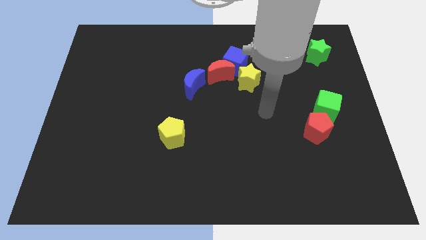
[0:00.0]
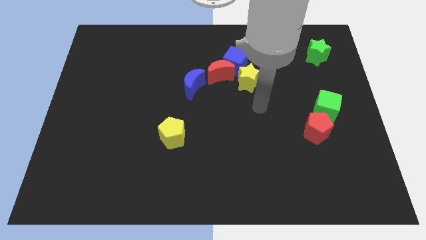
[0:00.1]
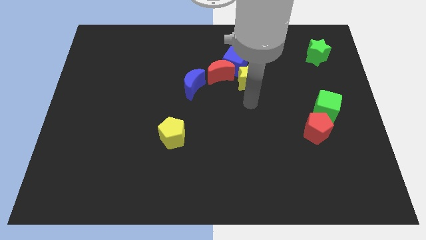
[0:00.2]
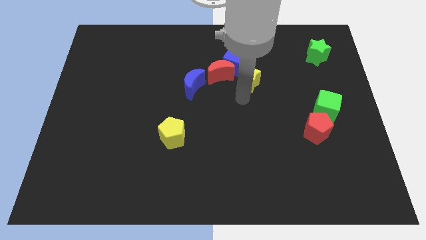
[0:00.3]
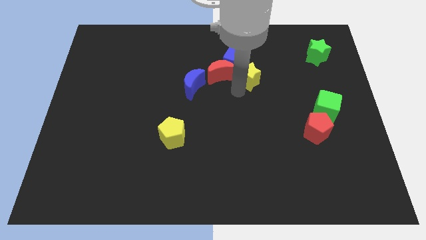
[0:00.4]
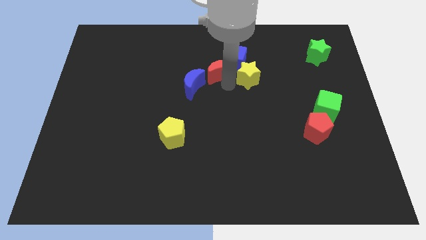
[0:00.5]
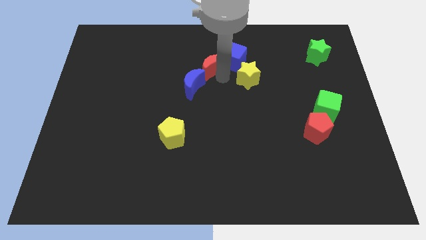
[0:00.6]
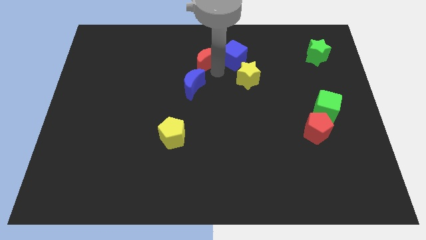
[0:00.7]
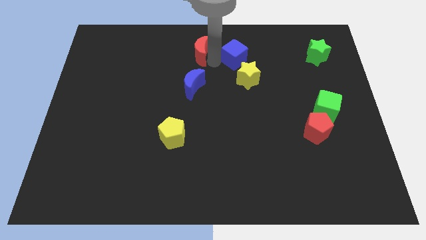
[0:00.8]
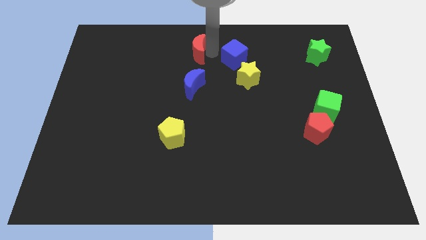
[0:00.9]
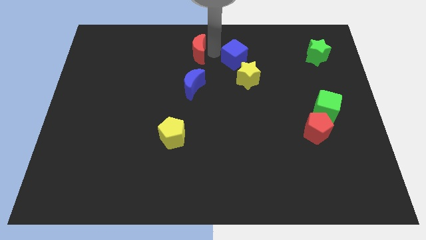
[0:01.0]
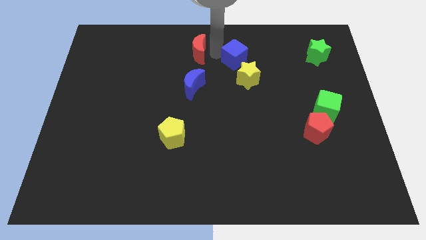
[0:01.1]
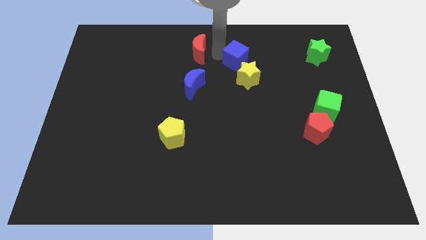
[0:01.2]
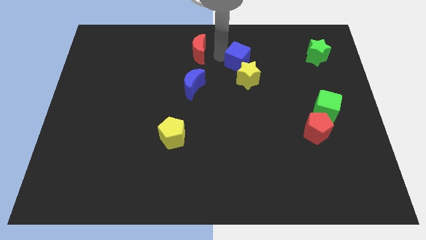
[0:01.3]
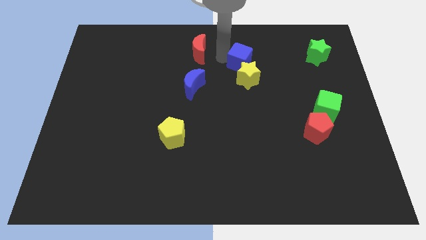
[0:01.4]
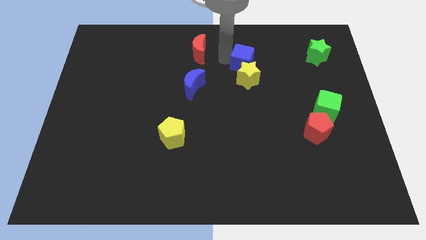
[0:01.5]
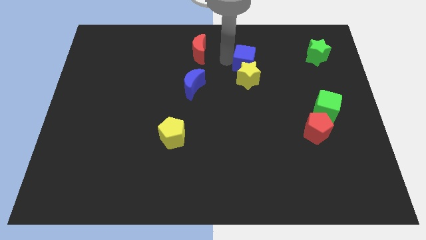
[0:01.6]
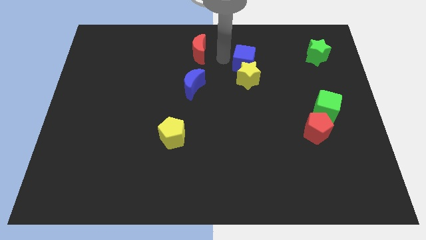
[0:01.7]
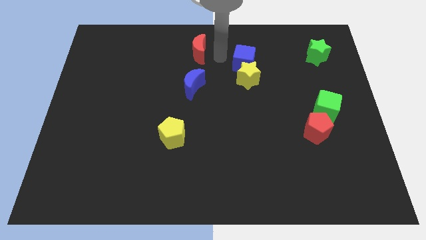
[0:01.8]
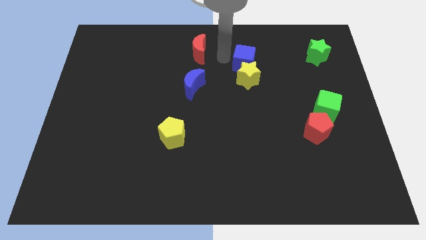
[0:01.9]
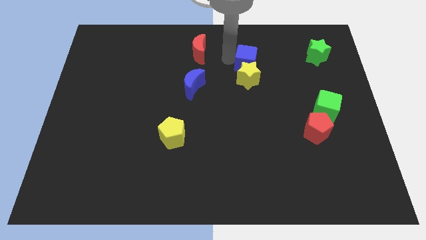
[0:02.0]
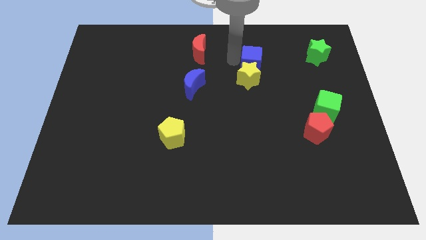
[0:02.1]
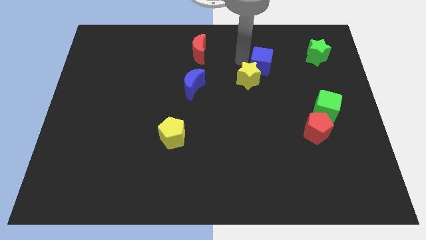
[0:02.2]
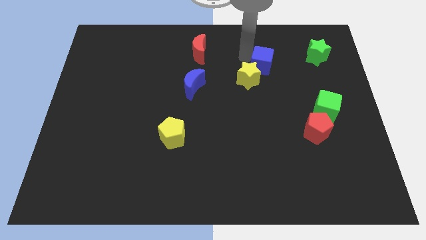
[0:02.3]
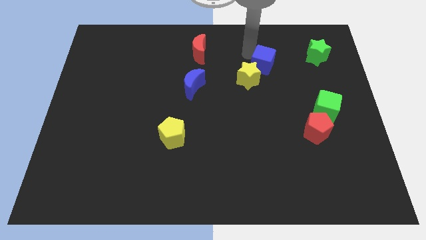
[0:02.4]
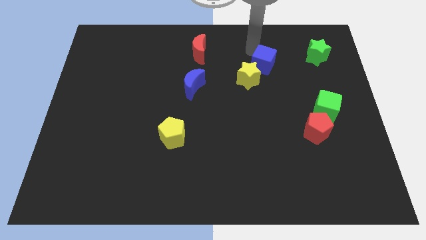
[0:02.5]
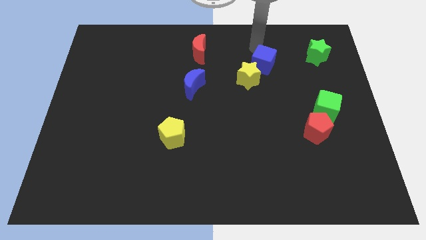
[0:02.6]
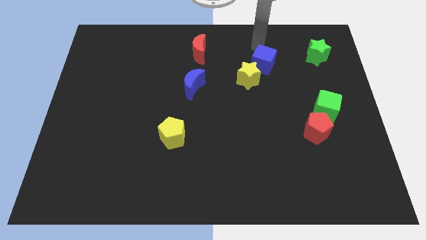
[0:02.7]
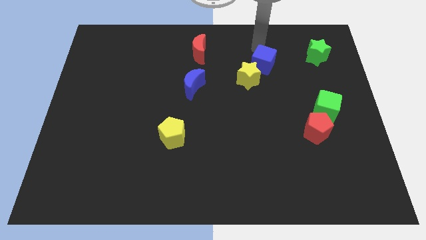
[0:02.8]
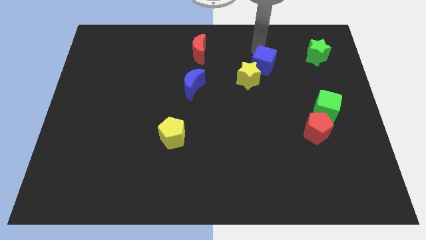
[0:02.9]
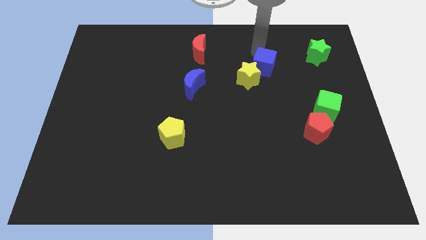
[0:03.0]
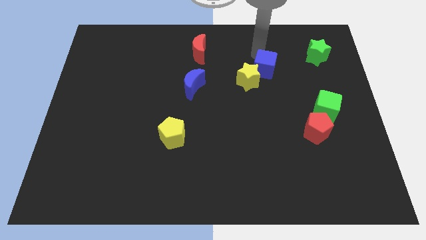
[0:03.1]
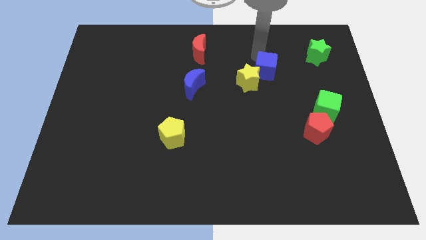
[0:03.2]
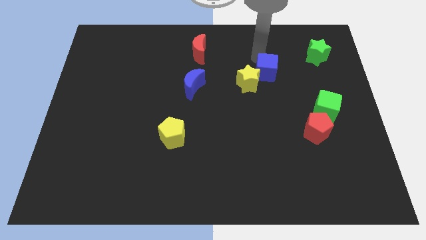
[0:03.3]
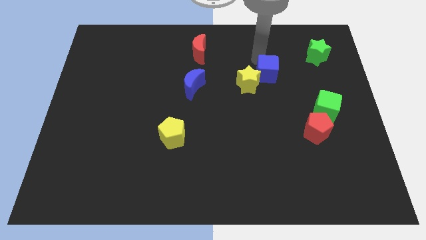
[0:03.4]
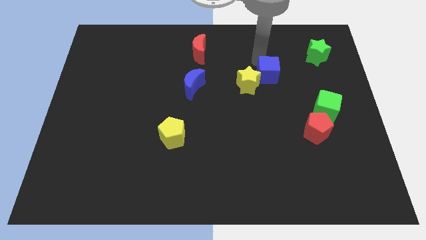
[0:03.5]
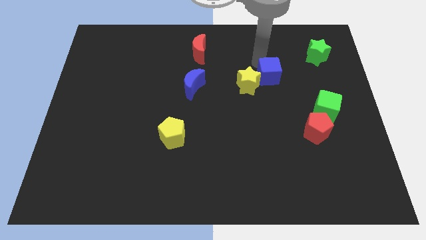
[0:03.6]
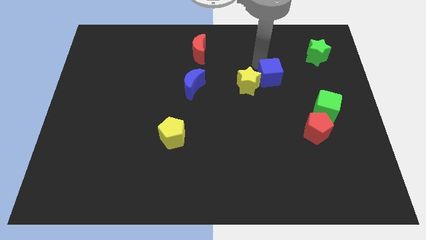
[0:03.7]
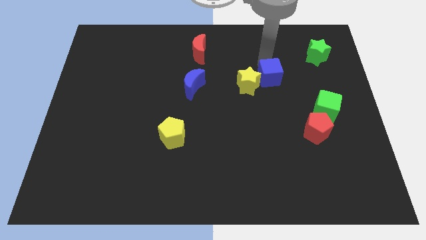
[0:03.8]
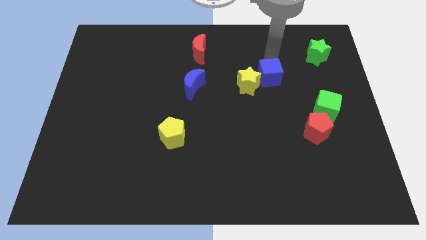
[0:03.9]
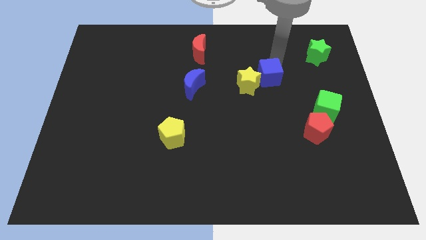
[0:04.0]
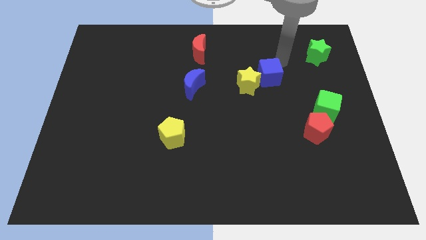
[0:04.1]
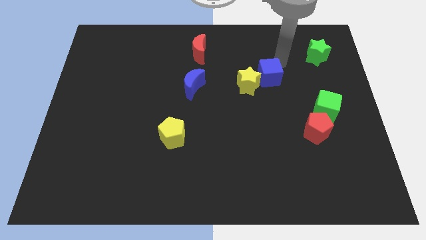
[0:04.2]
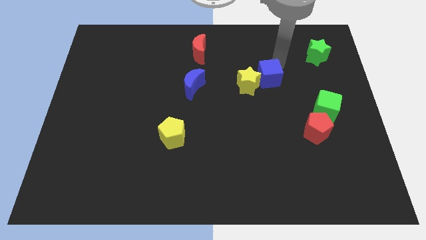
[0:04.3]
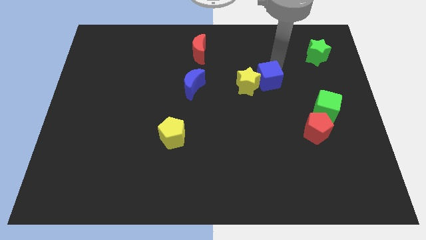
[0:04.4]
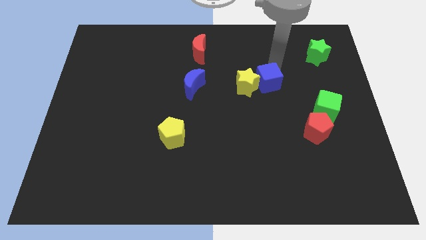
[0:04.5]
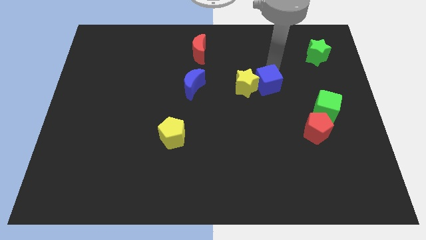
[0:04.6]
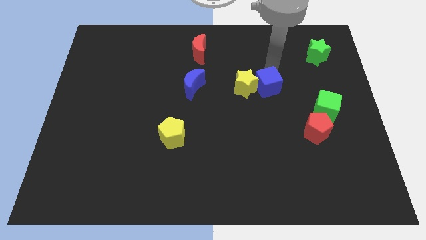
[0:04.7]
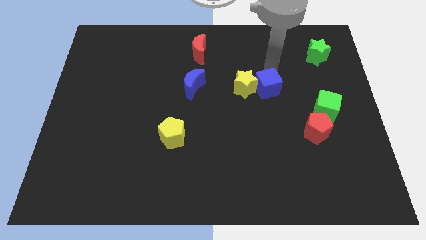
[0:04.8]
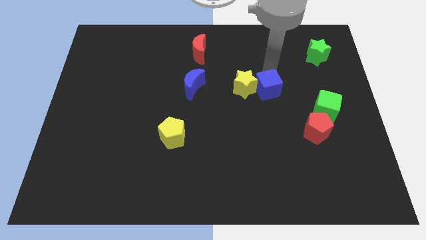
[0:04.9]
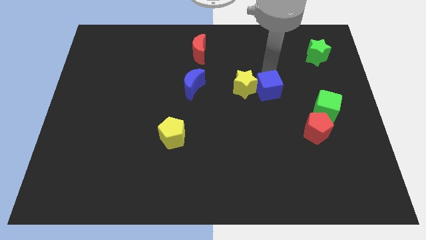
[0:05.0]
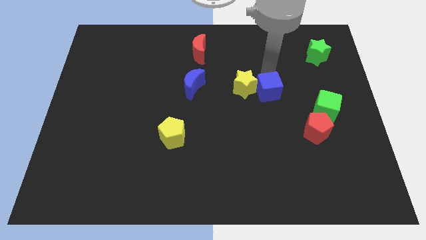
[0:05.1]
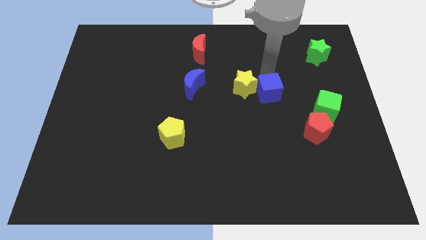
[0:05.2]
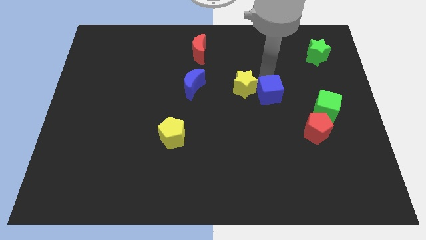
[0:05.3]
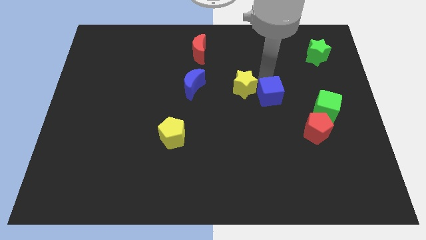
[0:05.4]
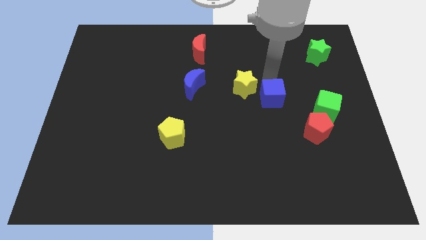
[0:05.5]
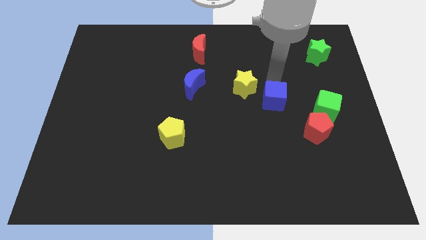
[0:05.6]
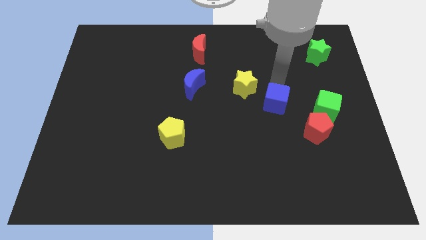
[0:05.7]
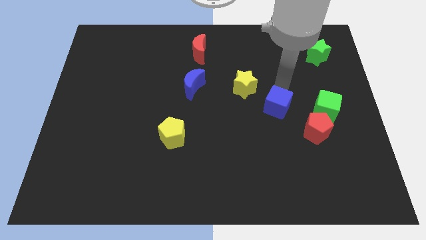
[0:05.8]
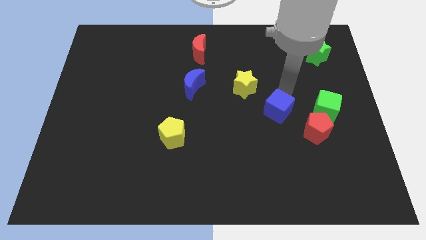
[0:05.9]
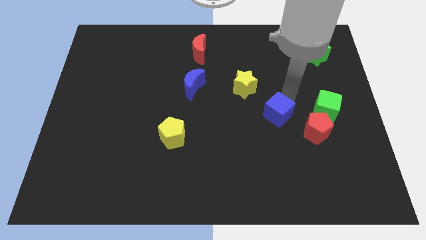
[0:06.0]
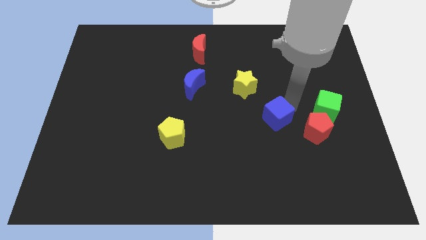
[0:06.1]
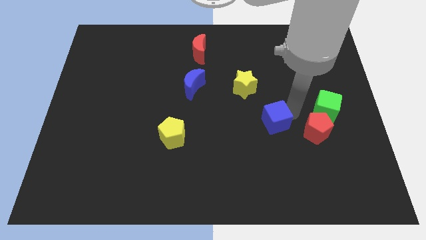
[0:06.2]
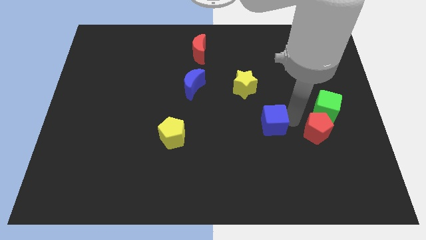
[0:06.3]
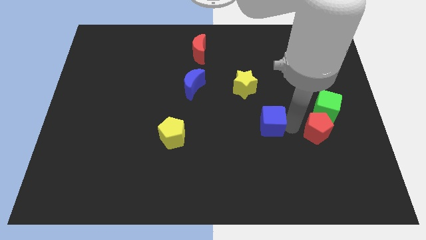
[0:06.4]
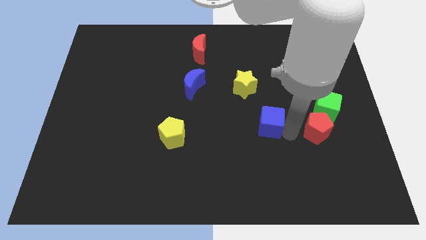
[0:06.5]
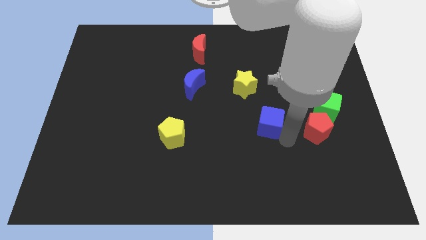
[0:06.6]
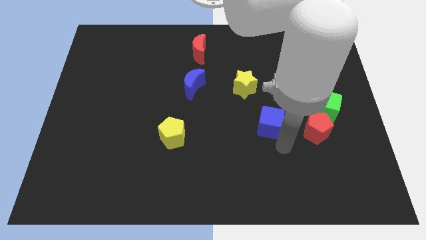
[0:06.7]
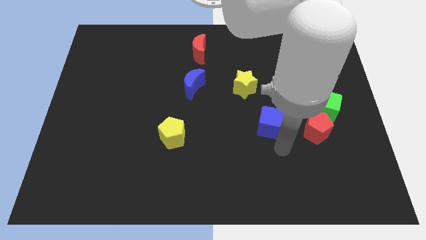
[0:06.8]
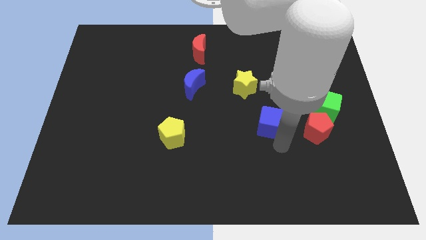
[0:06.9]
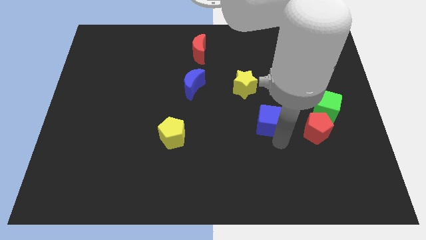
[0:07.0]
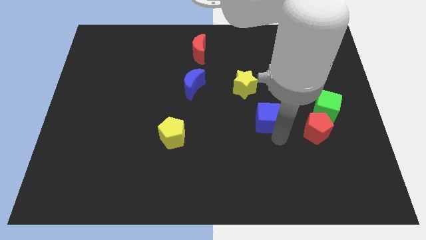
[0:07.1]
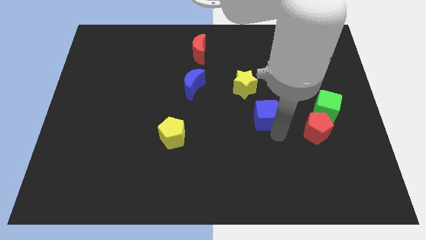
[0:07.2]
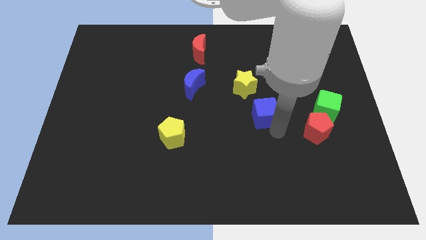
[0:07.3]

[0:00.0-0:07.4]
put the blue cube to the middle
